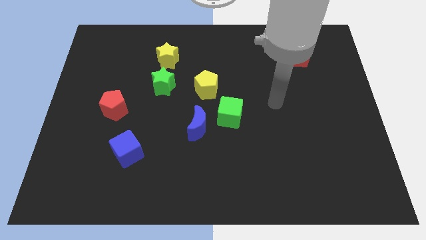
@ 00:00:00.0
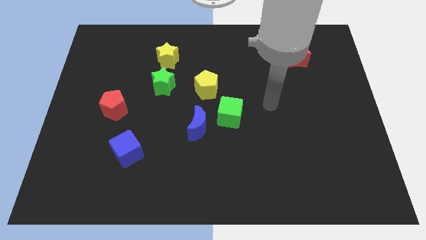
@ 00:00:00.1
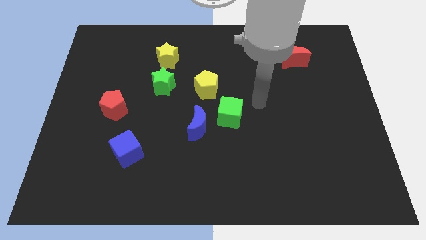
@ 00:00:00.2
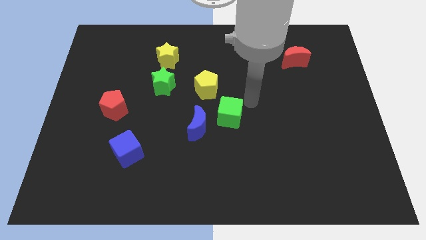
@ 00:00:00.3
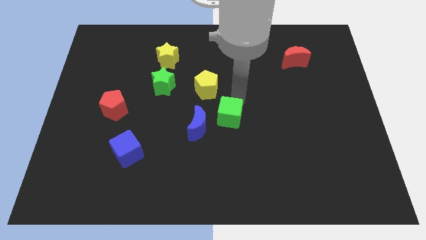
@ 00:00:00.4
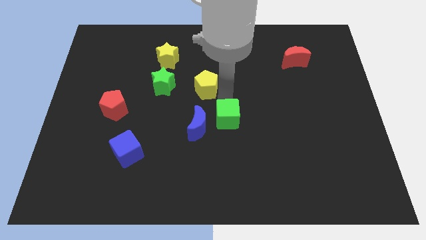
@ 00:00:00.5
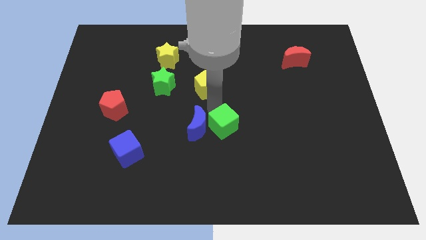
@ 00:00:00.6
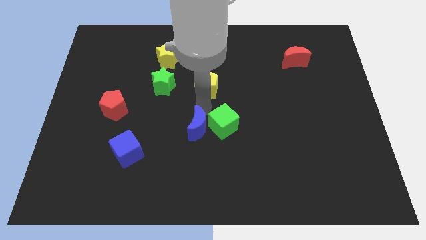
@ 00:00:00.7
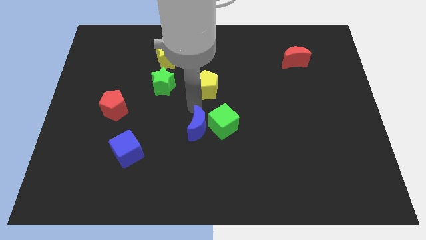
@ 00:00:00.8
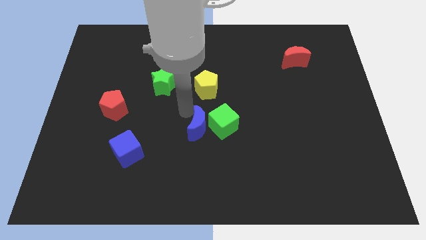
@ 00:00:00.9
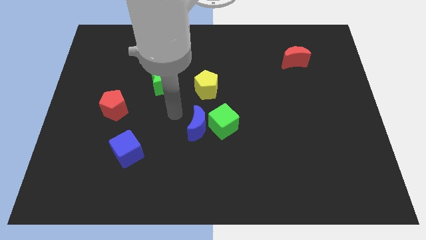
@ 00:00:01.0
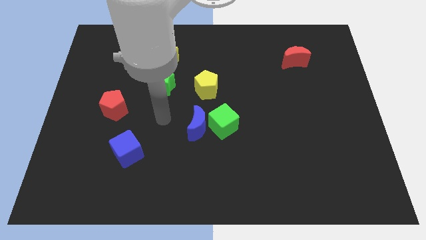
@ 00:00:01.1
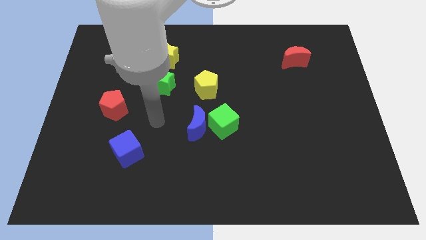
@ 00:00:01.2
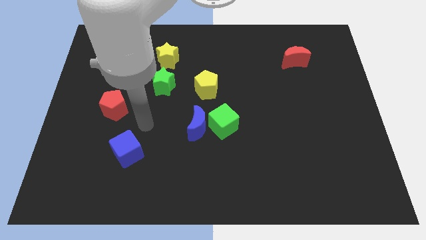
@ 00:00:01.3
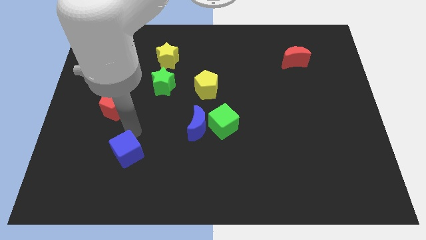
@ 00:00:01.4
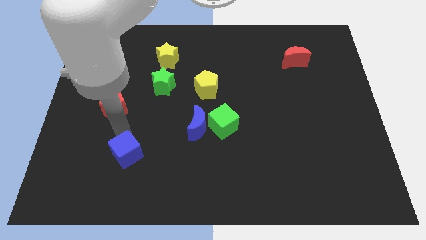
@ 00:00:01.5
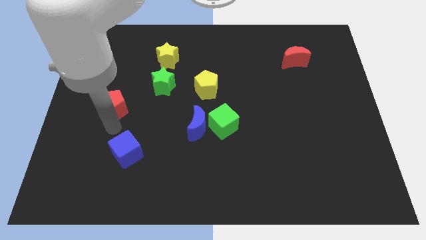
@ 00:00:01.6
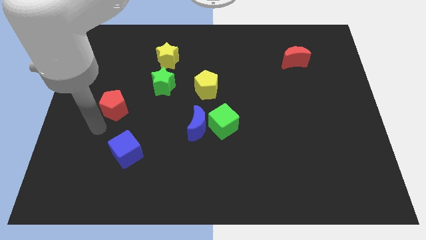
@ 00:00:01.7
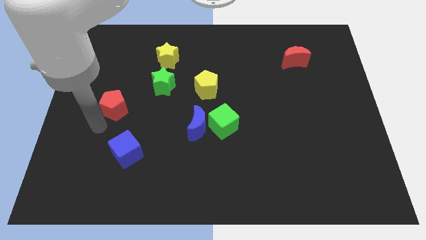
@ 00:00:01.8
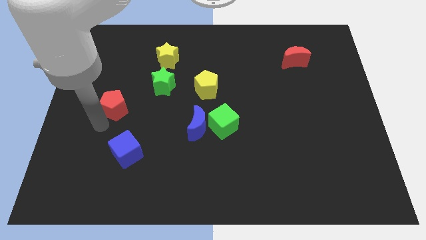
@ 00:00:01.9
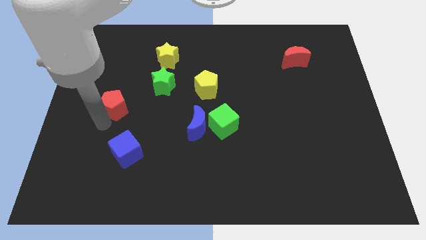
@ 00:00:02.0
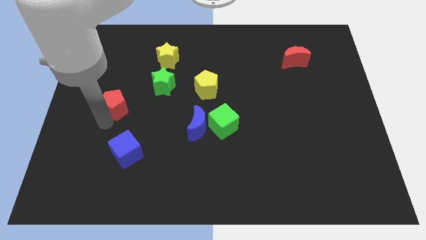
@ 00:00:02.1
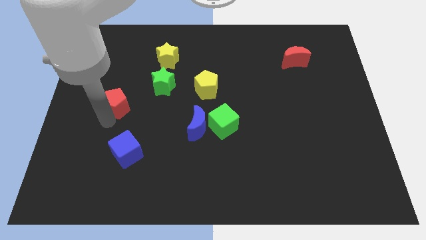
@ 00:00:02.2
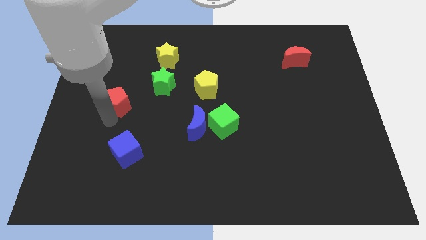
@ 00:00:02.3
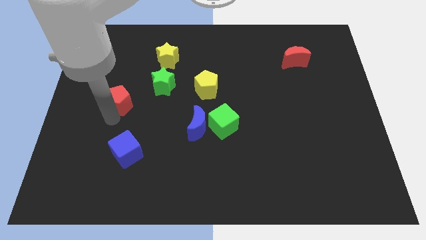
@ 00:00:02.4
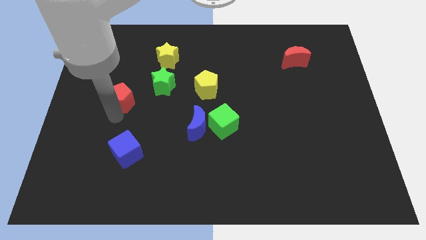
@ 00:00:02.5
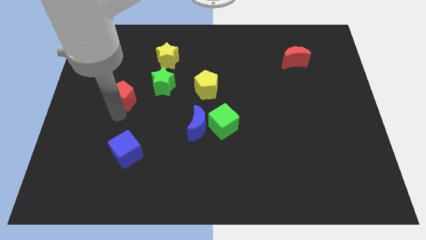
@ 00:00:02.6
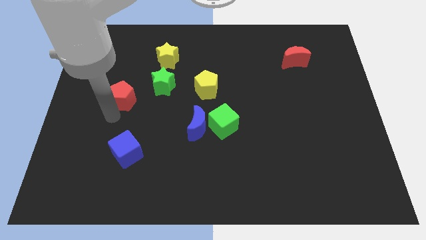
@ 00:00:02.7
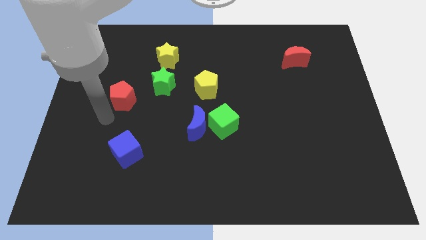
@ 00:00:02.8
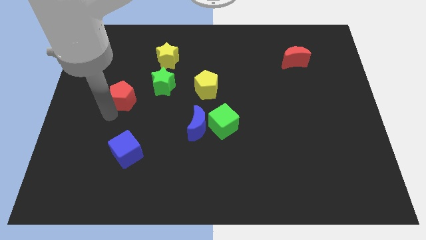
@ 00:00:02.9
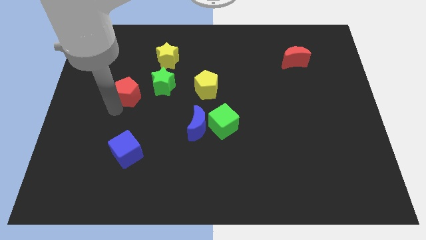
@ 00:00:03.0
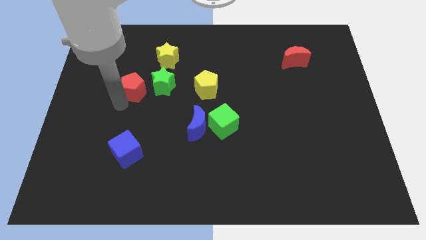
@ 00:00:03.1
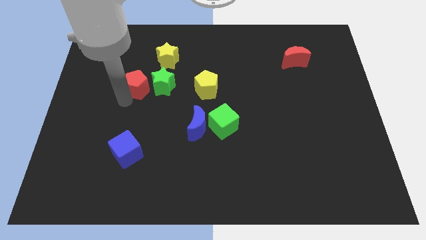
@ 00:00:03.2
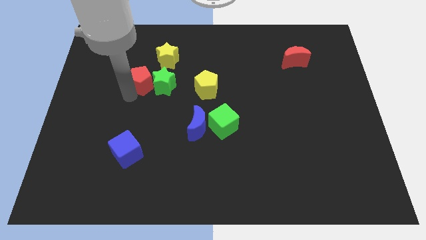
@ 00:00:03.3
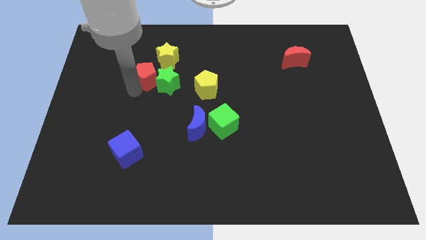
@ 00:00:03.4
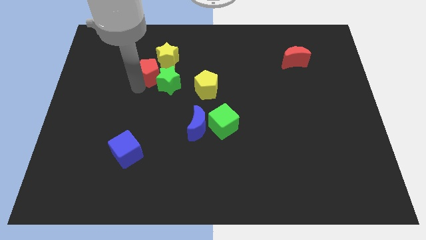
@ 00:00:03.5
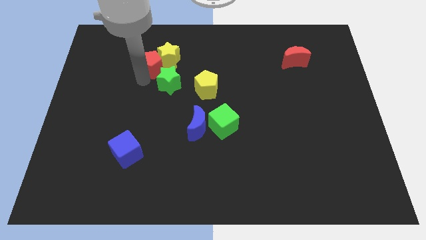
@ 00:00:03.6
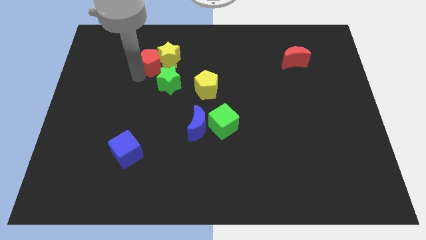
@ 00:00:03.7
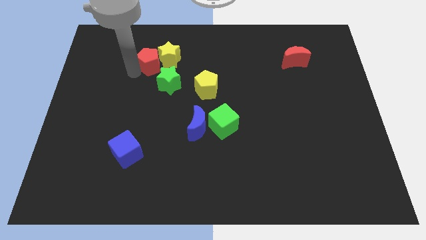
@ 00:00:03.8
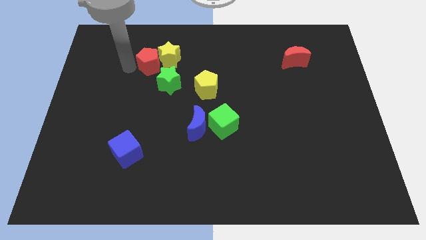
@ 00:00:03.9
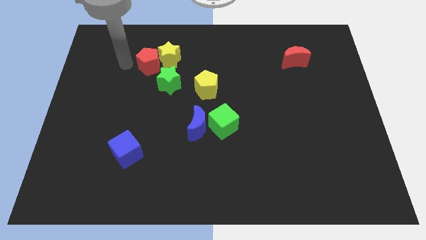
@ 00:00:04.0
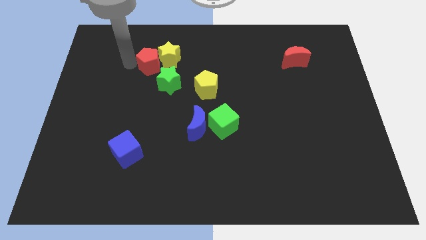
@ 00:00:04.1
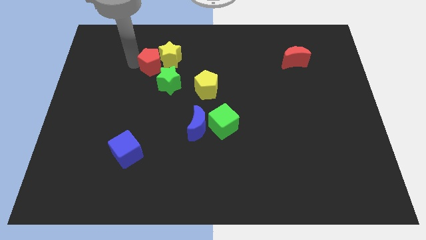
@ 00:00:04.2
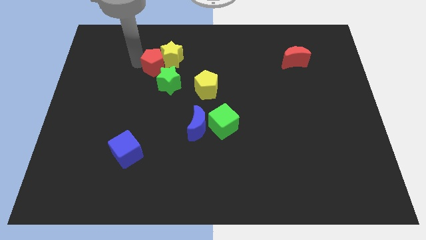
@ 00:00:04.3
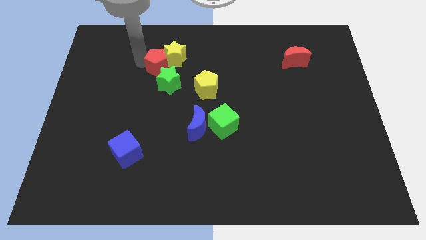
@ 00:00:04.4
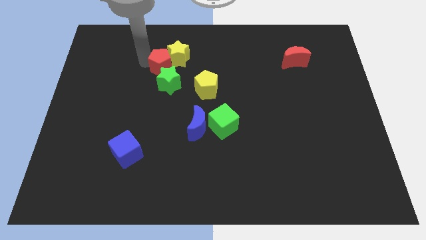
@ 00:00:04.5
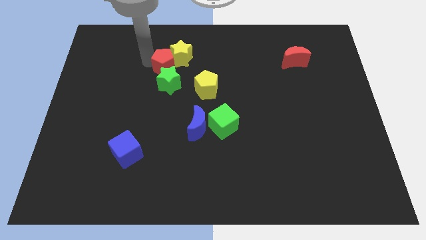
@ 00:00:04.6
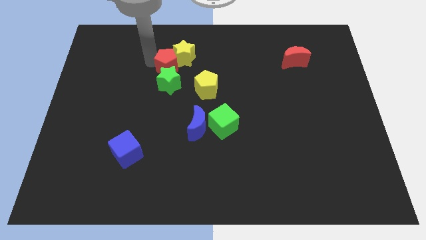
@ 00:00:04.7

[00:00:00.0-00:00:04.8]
move the red pentagon to the top right side of the green star

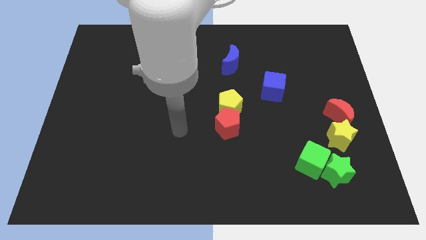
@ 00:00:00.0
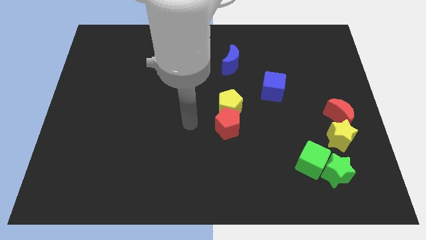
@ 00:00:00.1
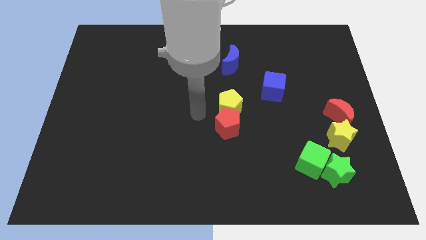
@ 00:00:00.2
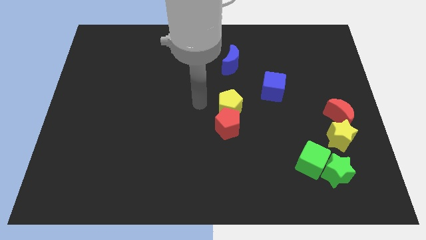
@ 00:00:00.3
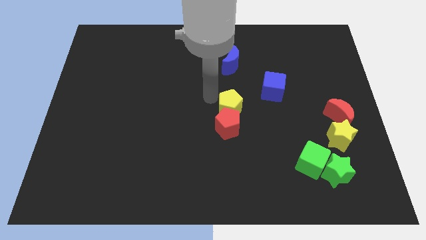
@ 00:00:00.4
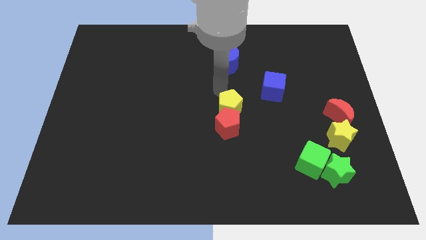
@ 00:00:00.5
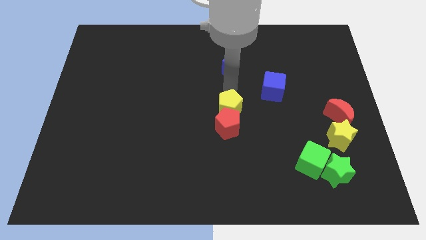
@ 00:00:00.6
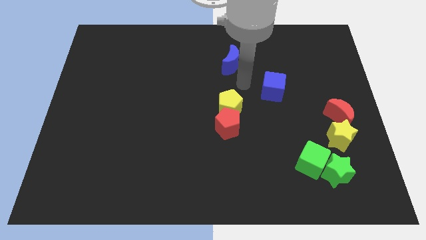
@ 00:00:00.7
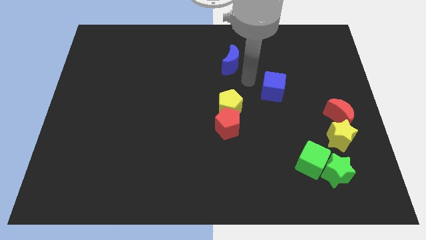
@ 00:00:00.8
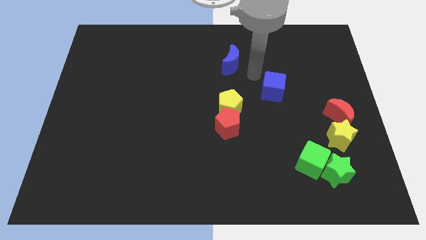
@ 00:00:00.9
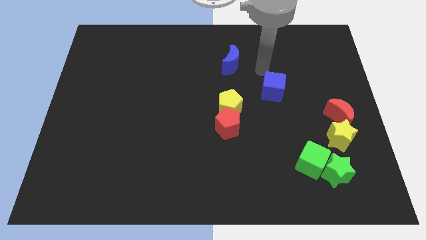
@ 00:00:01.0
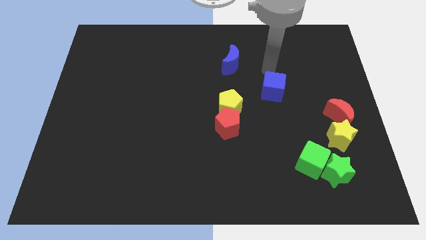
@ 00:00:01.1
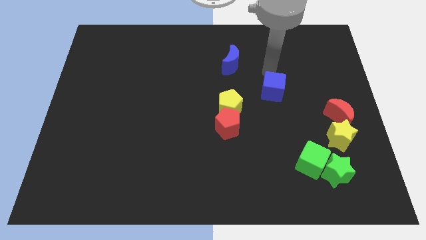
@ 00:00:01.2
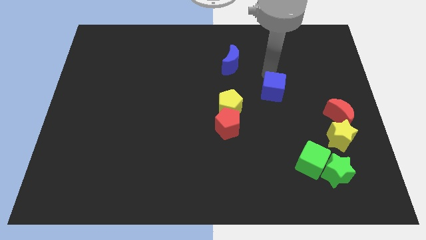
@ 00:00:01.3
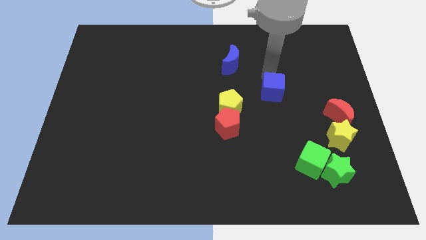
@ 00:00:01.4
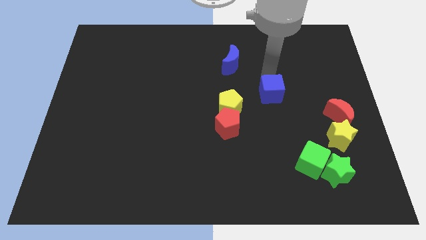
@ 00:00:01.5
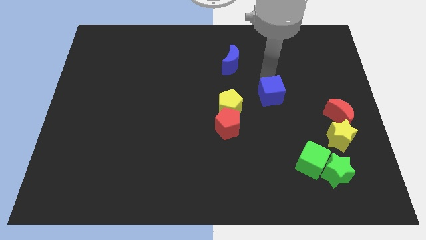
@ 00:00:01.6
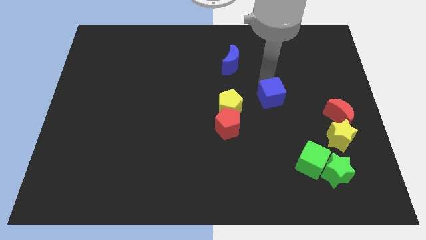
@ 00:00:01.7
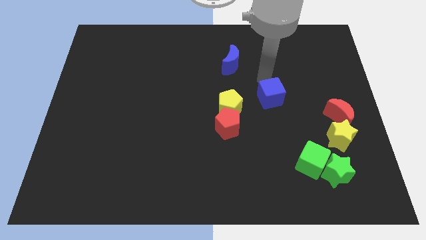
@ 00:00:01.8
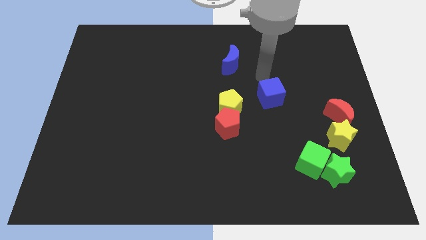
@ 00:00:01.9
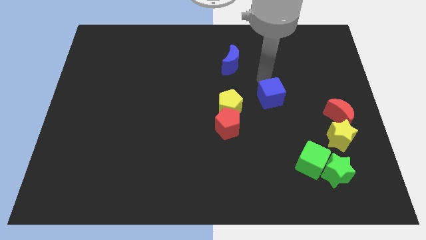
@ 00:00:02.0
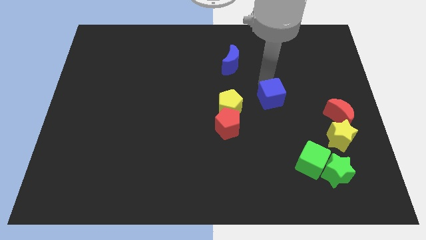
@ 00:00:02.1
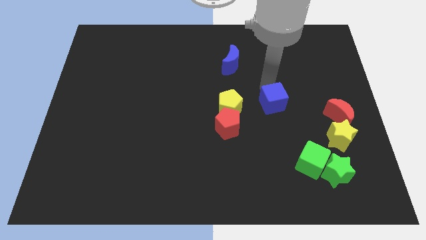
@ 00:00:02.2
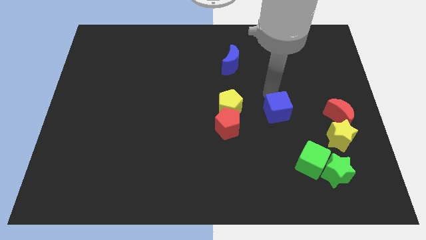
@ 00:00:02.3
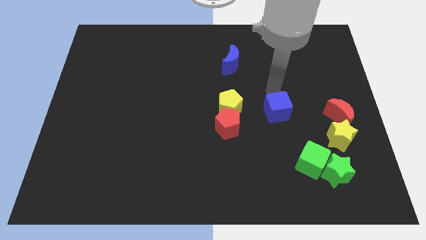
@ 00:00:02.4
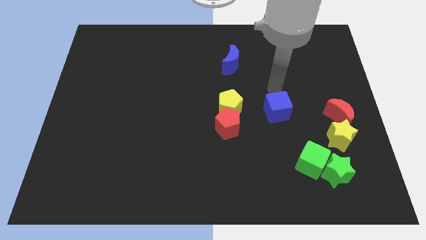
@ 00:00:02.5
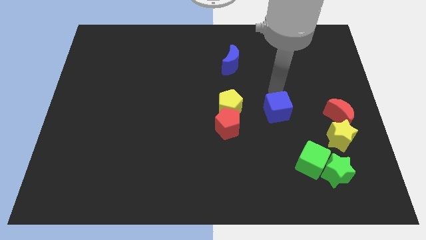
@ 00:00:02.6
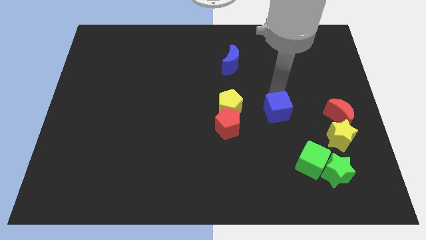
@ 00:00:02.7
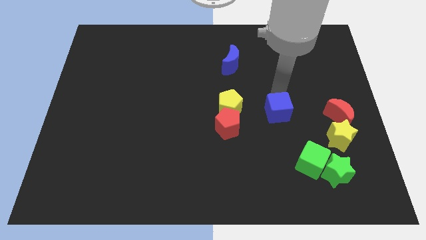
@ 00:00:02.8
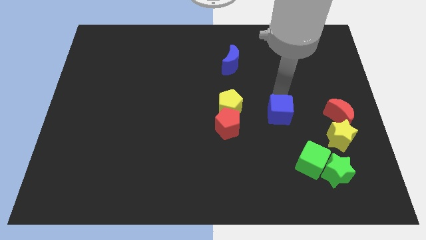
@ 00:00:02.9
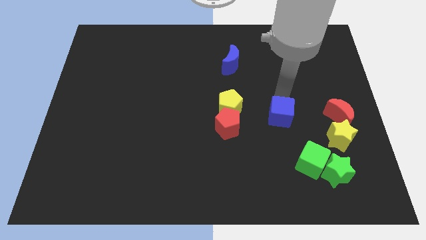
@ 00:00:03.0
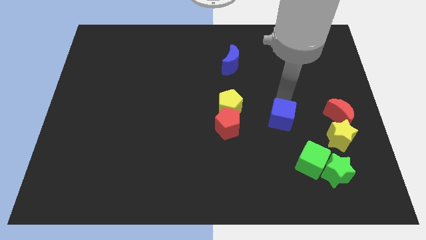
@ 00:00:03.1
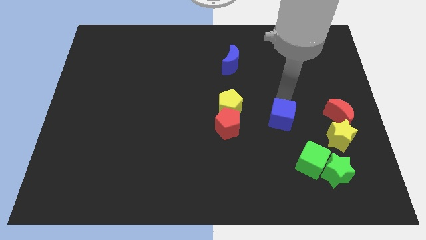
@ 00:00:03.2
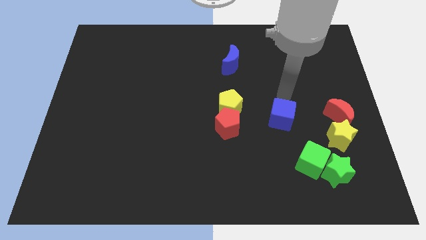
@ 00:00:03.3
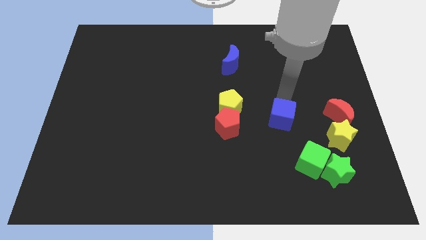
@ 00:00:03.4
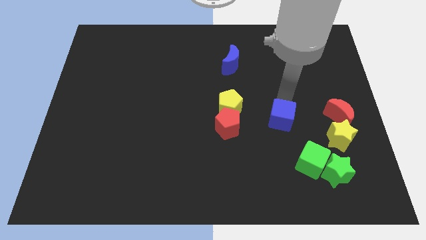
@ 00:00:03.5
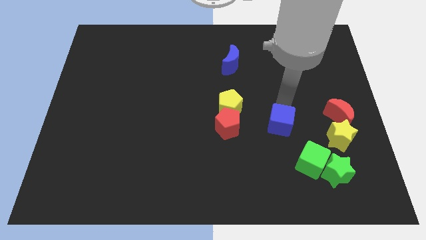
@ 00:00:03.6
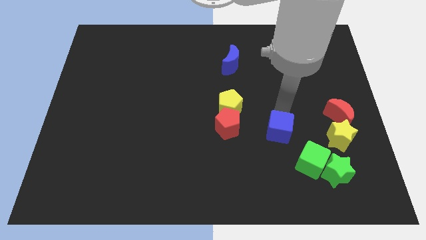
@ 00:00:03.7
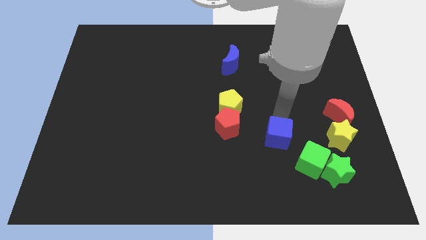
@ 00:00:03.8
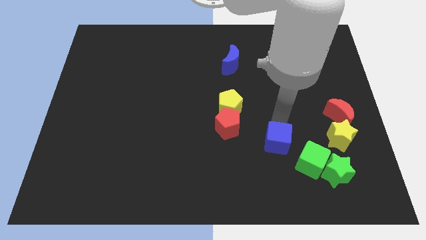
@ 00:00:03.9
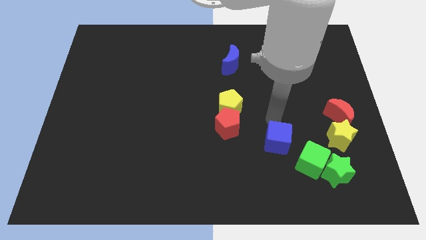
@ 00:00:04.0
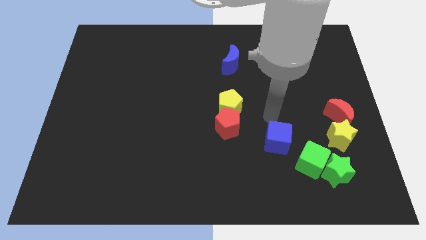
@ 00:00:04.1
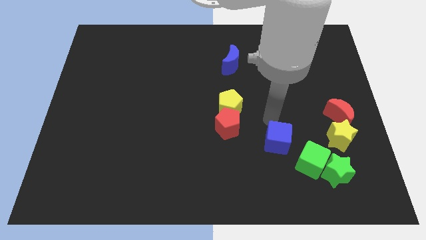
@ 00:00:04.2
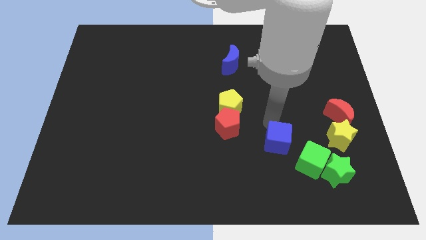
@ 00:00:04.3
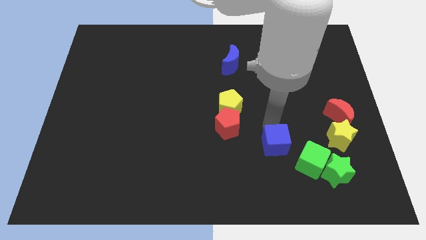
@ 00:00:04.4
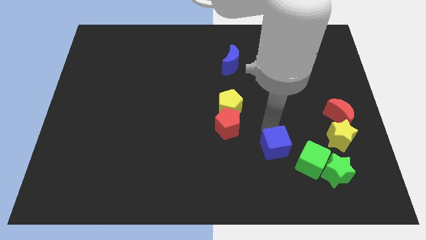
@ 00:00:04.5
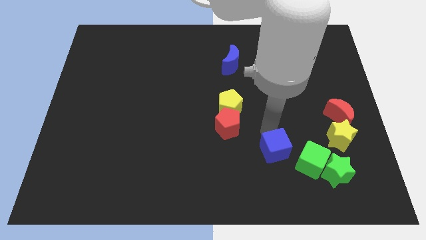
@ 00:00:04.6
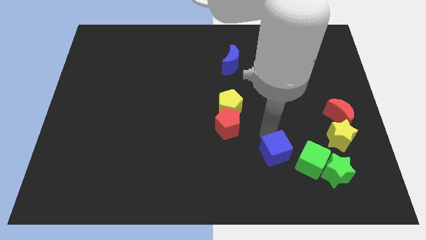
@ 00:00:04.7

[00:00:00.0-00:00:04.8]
push the blue cube left of the green star
